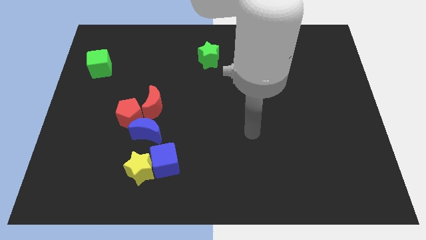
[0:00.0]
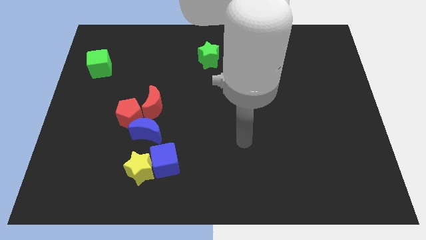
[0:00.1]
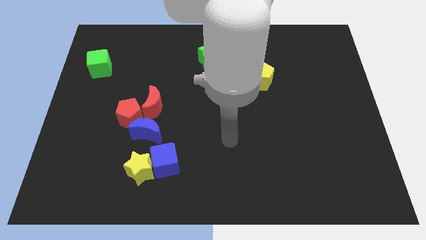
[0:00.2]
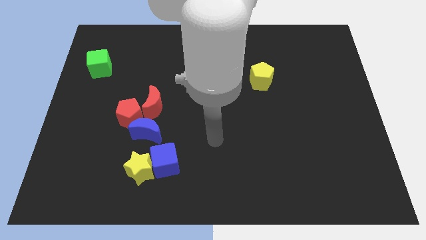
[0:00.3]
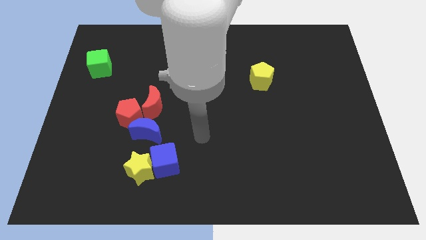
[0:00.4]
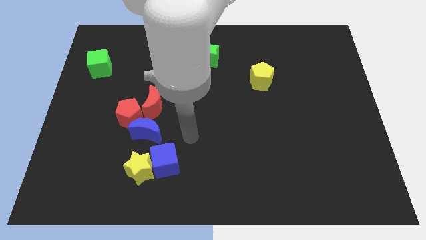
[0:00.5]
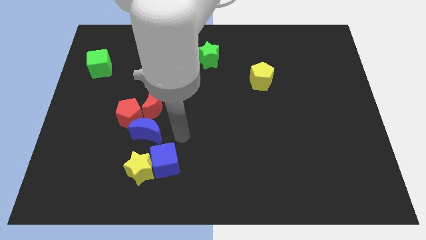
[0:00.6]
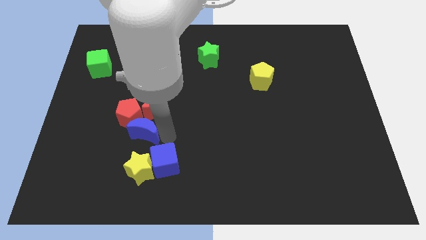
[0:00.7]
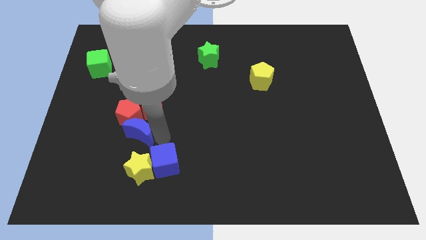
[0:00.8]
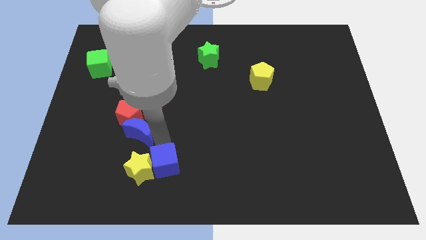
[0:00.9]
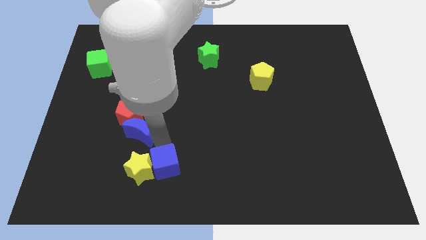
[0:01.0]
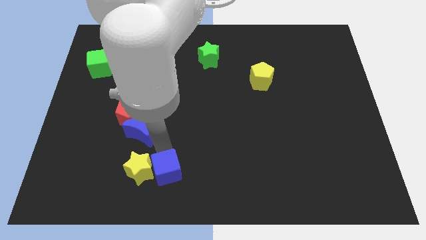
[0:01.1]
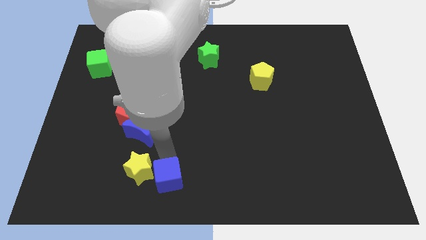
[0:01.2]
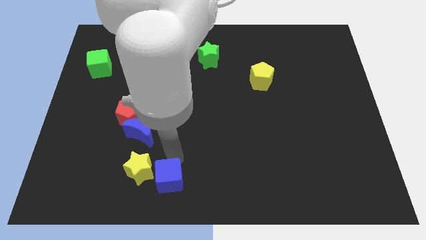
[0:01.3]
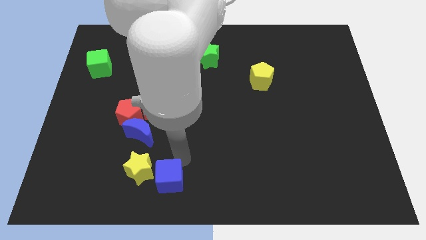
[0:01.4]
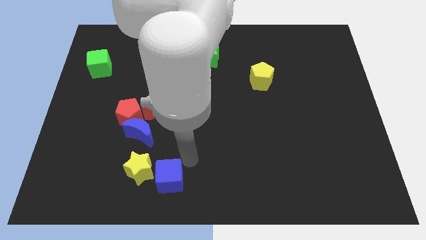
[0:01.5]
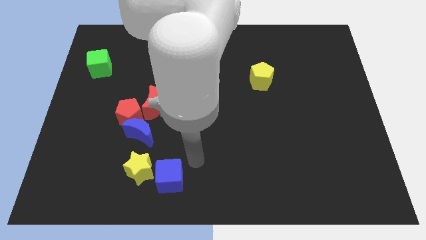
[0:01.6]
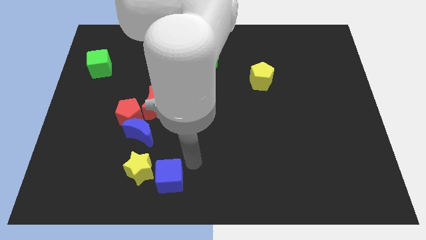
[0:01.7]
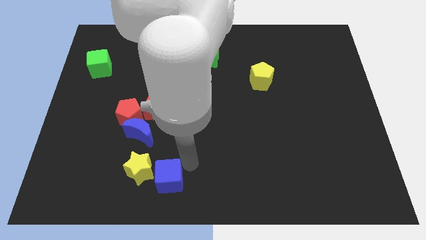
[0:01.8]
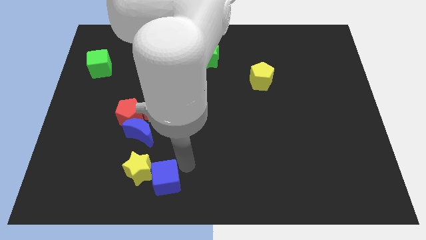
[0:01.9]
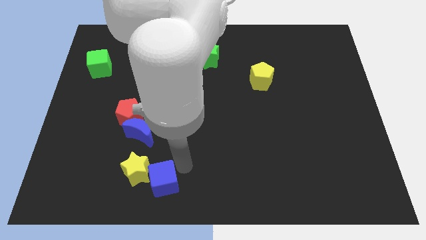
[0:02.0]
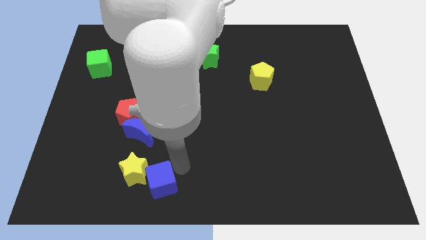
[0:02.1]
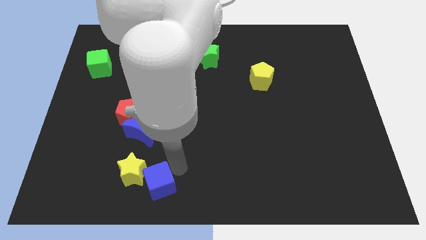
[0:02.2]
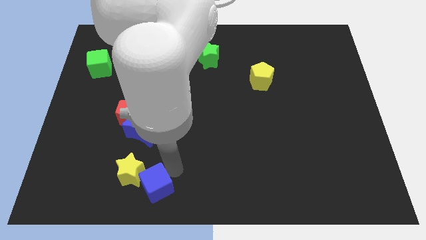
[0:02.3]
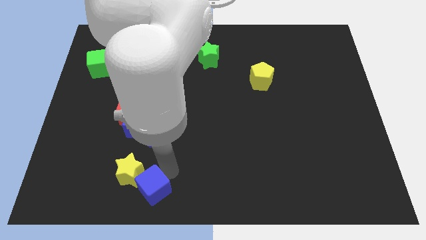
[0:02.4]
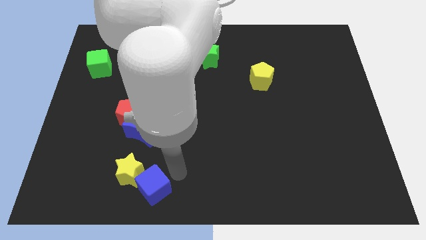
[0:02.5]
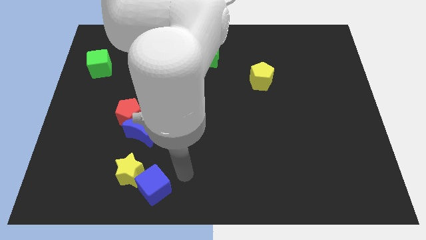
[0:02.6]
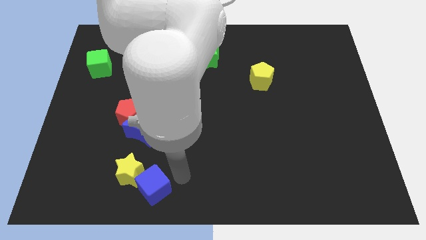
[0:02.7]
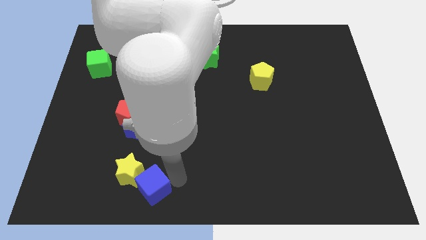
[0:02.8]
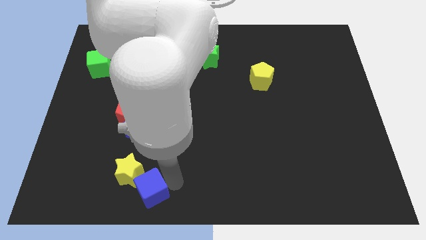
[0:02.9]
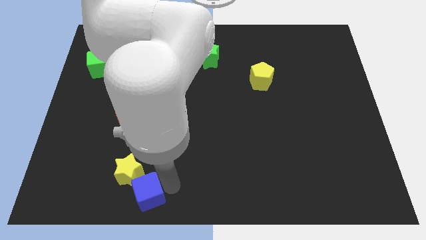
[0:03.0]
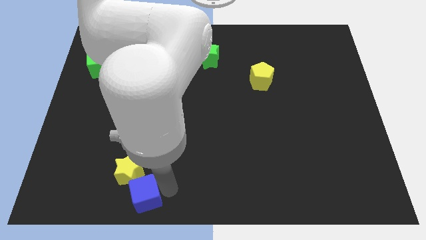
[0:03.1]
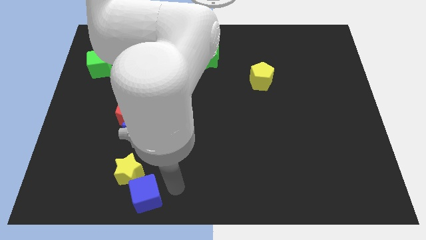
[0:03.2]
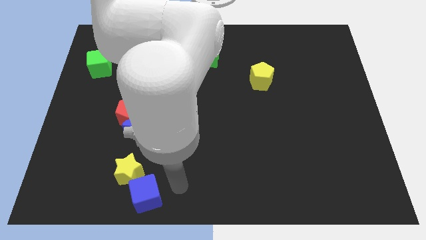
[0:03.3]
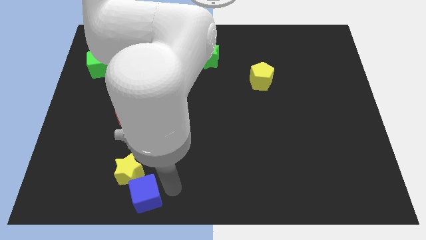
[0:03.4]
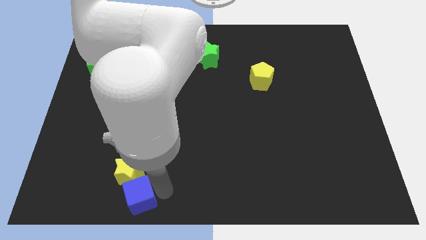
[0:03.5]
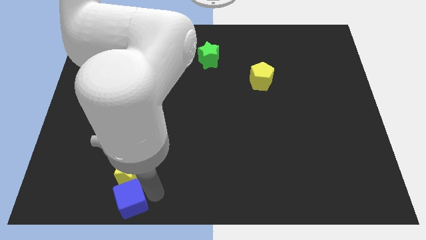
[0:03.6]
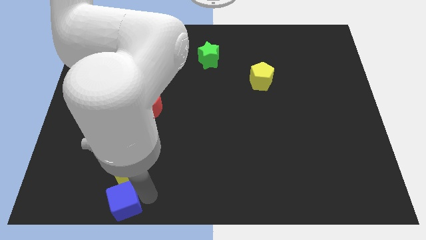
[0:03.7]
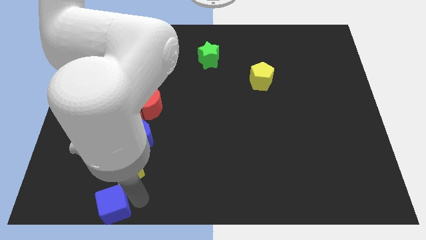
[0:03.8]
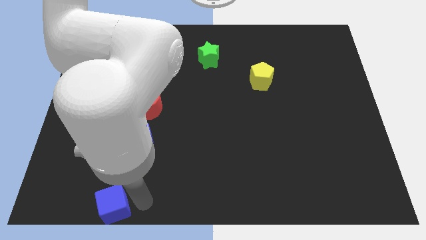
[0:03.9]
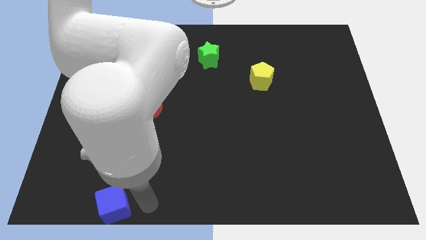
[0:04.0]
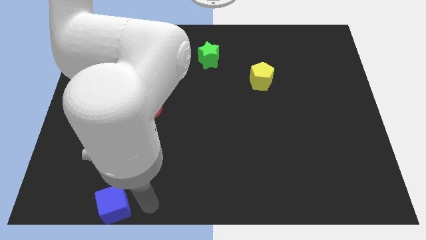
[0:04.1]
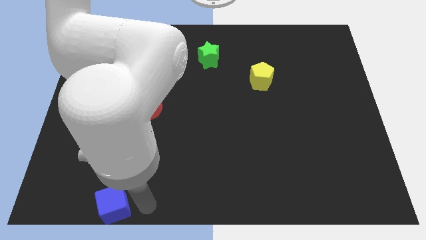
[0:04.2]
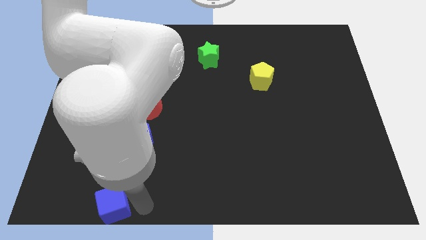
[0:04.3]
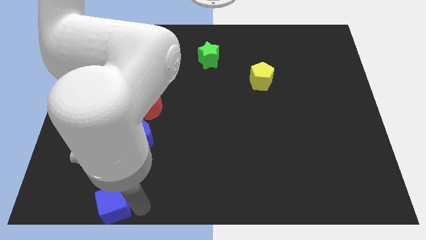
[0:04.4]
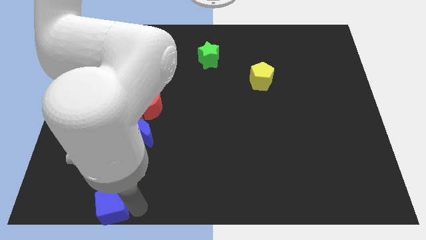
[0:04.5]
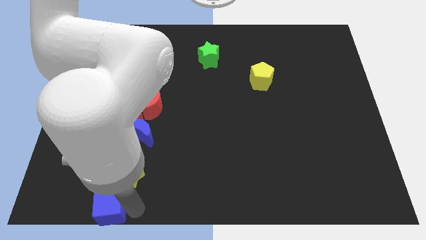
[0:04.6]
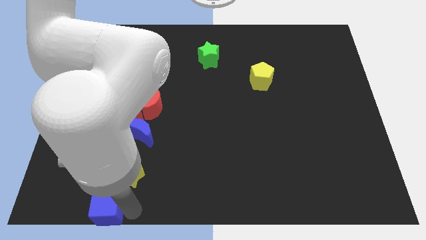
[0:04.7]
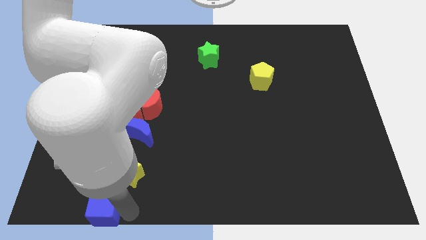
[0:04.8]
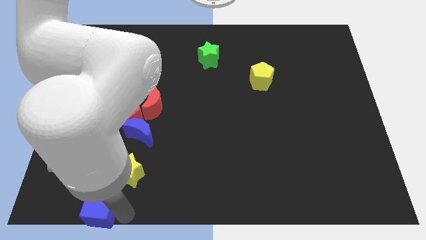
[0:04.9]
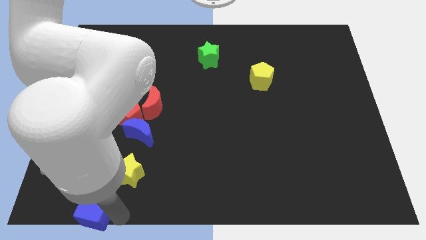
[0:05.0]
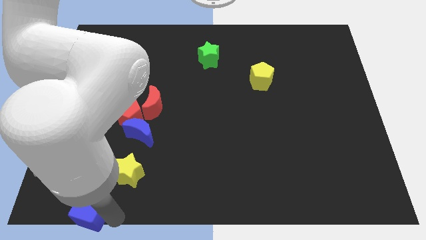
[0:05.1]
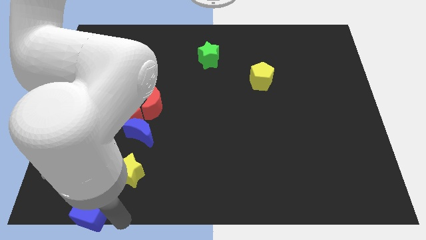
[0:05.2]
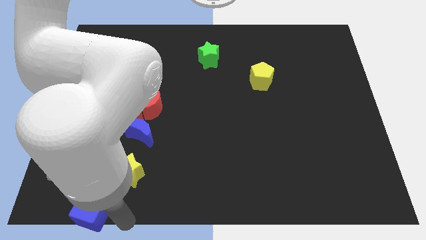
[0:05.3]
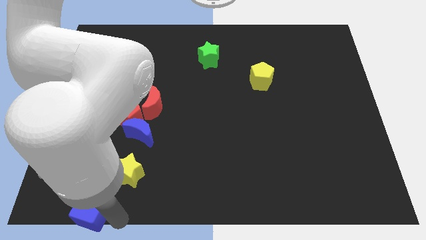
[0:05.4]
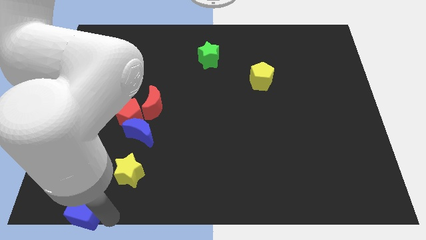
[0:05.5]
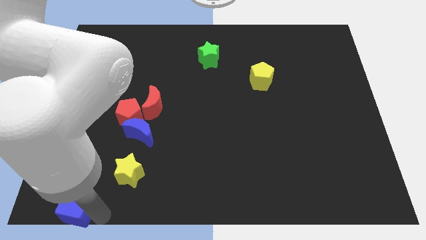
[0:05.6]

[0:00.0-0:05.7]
slide the blue cube to the lower left corner

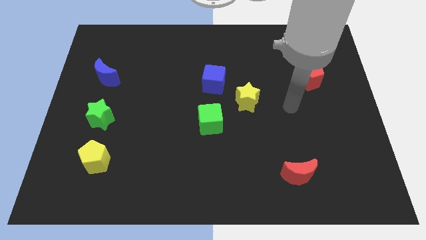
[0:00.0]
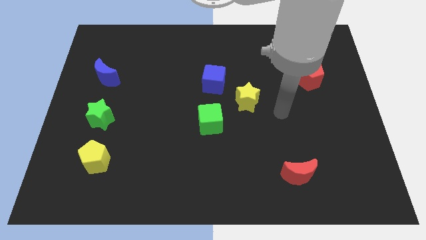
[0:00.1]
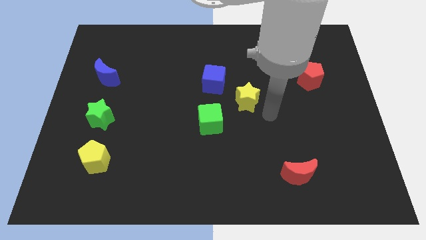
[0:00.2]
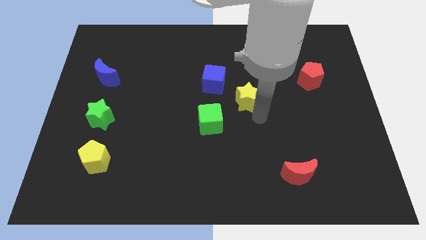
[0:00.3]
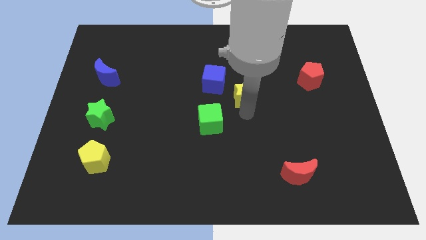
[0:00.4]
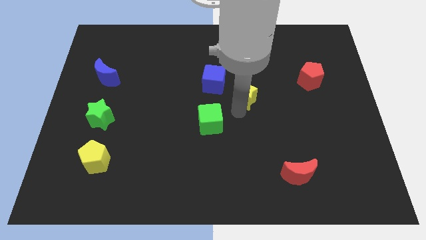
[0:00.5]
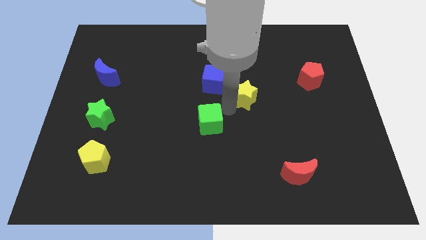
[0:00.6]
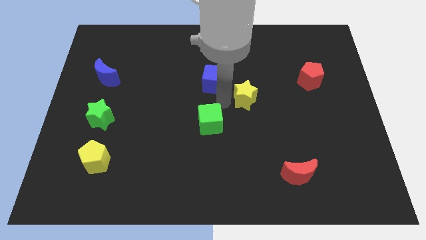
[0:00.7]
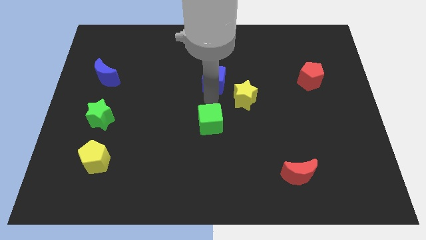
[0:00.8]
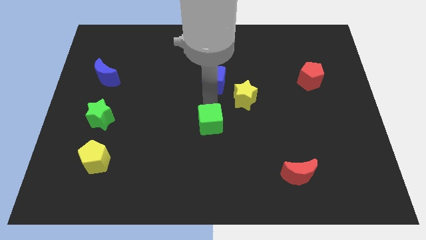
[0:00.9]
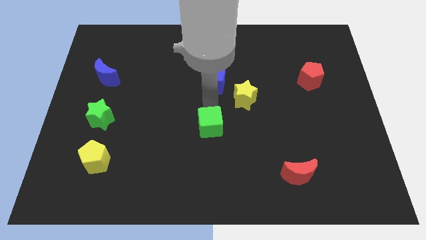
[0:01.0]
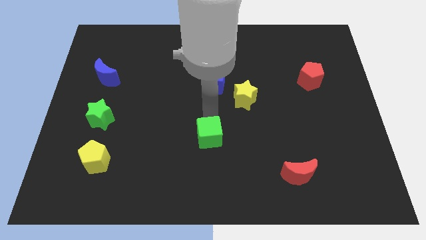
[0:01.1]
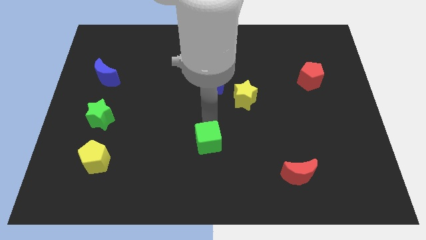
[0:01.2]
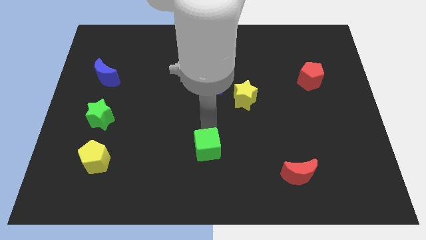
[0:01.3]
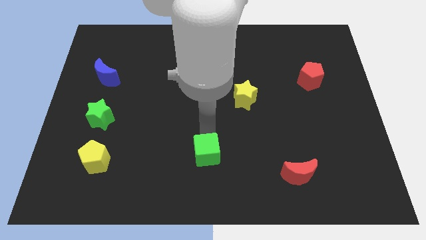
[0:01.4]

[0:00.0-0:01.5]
slide the green cube to the bottom

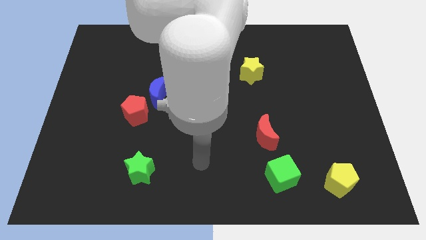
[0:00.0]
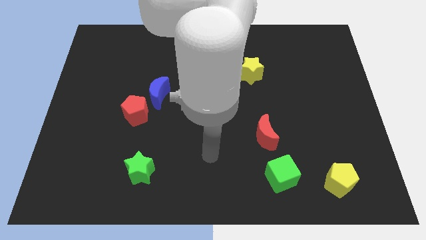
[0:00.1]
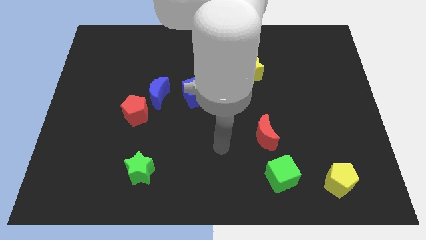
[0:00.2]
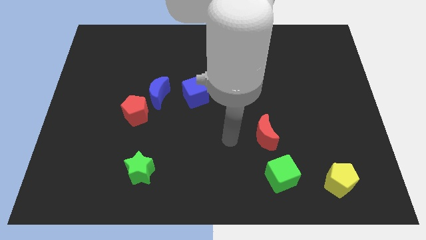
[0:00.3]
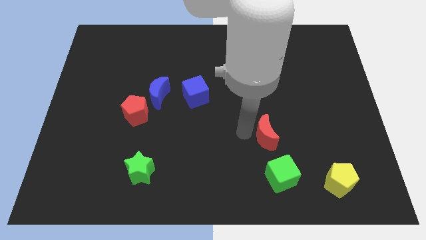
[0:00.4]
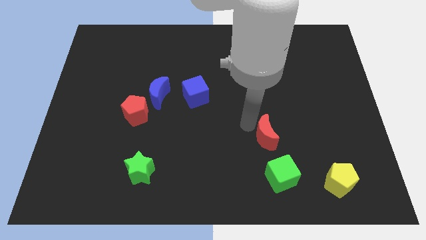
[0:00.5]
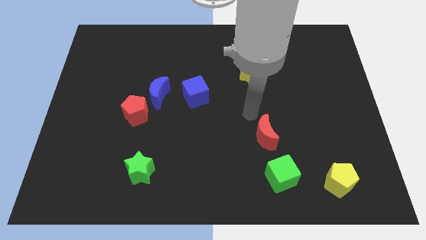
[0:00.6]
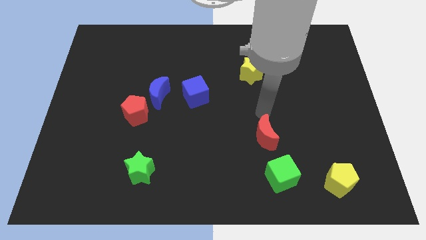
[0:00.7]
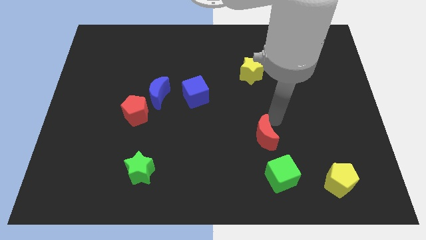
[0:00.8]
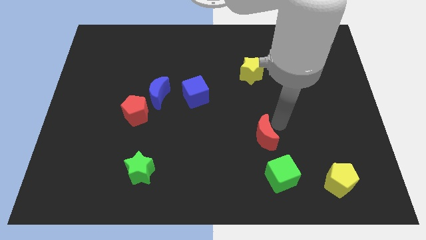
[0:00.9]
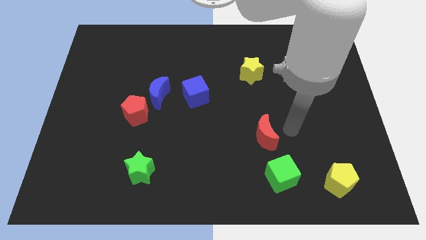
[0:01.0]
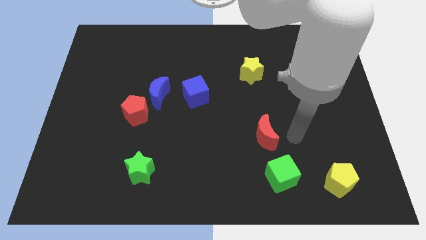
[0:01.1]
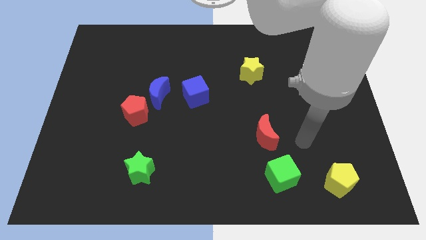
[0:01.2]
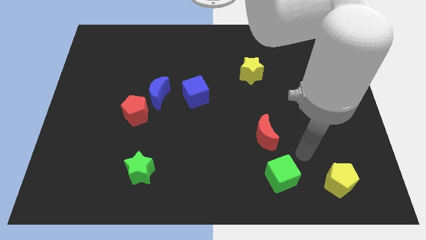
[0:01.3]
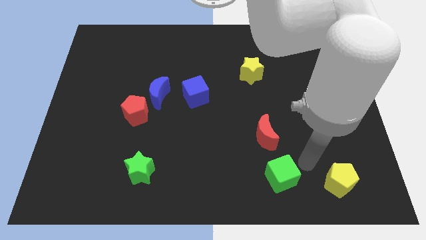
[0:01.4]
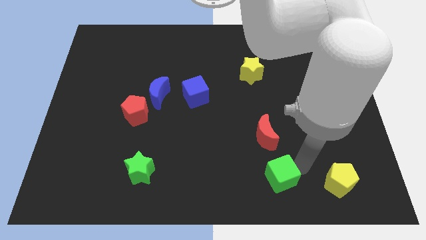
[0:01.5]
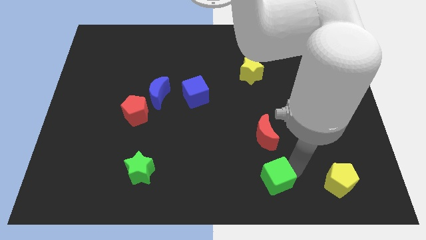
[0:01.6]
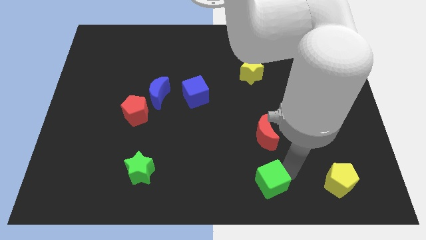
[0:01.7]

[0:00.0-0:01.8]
push the green cube to the bottom side
